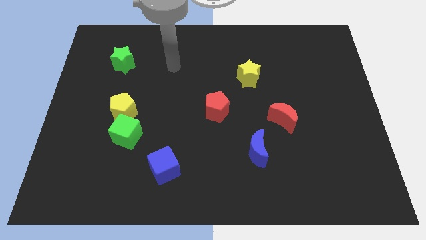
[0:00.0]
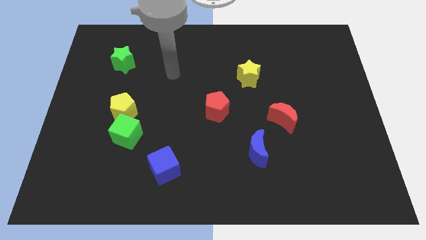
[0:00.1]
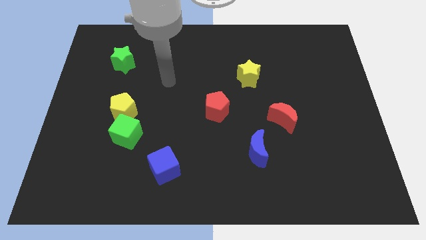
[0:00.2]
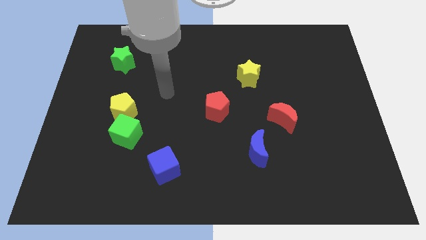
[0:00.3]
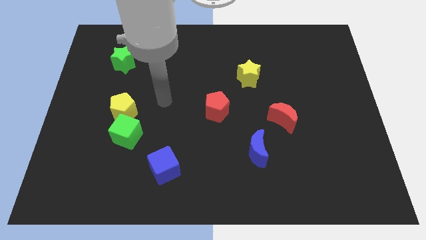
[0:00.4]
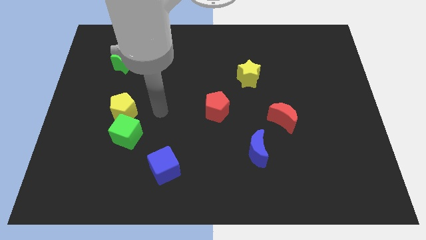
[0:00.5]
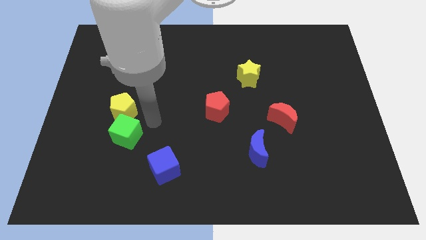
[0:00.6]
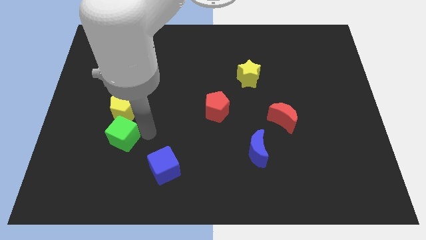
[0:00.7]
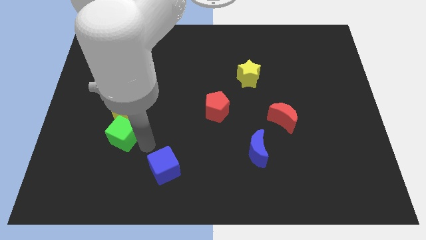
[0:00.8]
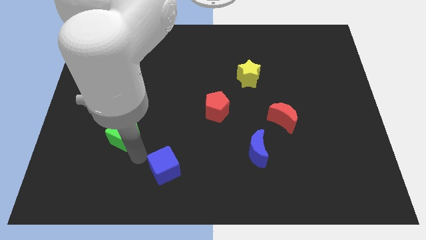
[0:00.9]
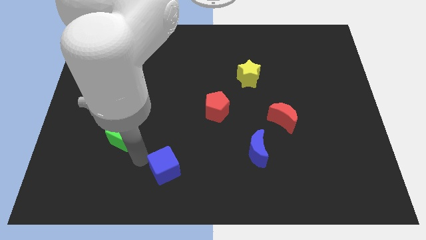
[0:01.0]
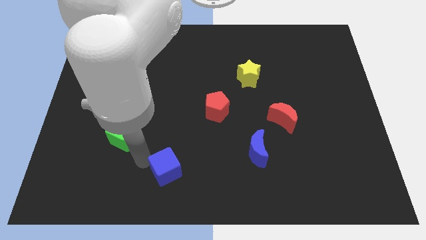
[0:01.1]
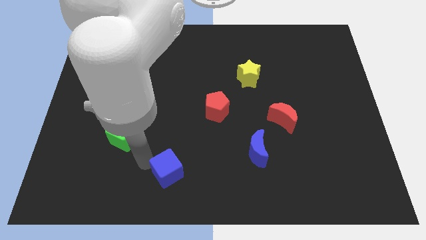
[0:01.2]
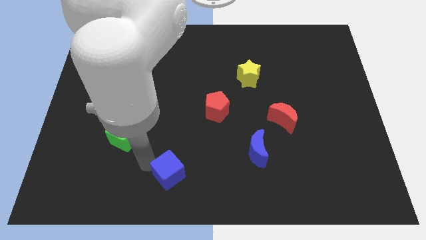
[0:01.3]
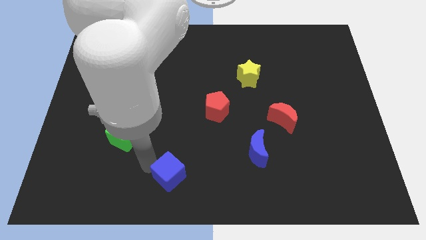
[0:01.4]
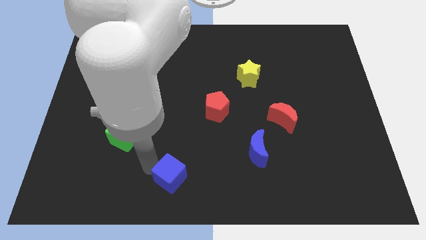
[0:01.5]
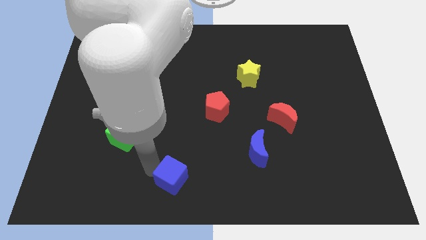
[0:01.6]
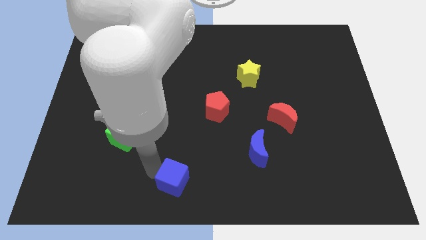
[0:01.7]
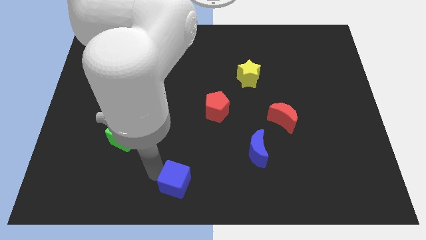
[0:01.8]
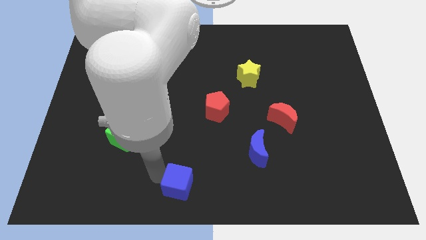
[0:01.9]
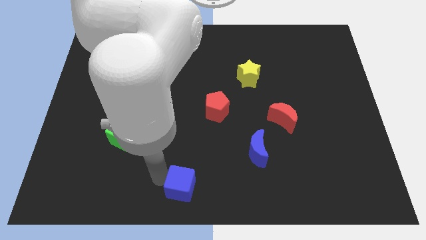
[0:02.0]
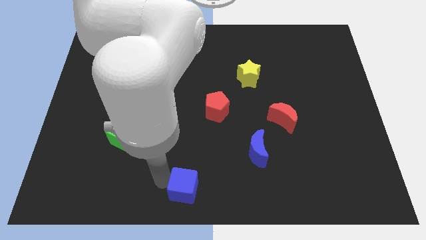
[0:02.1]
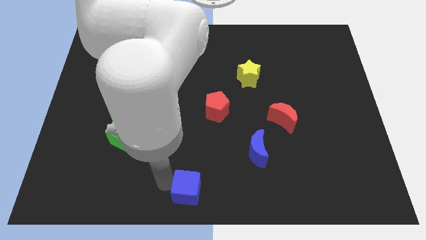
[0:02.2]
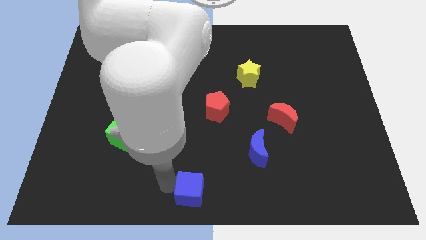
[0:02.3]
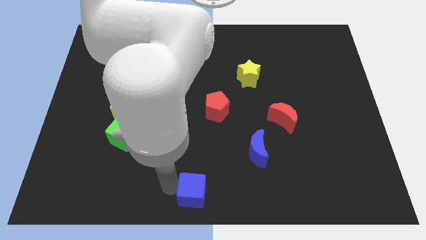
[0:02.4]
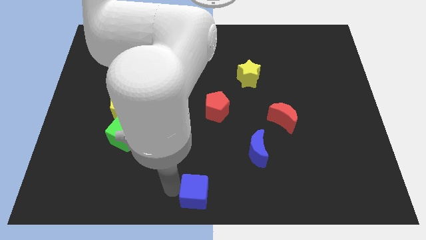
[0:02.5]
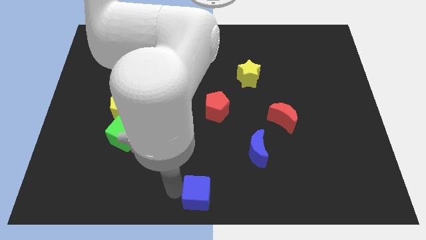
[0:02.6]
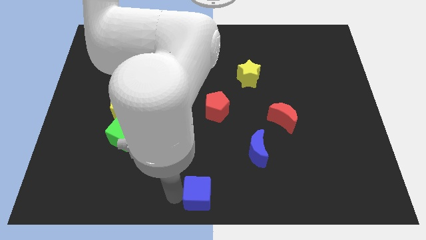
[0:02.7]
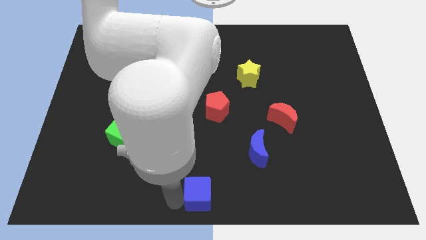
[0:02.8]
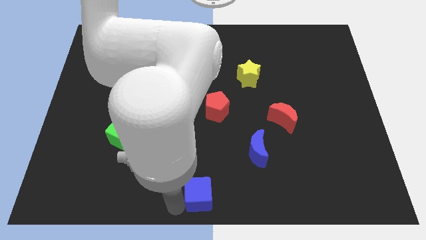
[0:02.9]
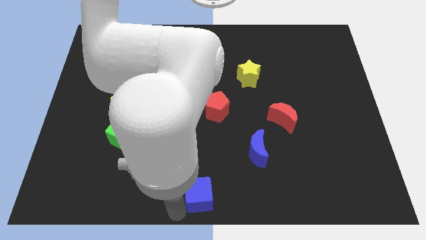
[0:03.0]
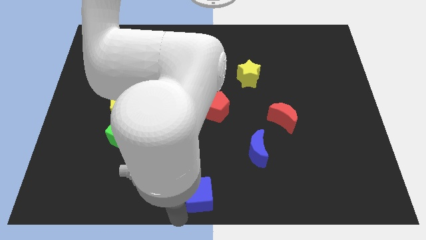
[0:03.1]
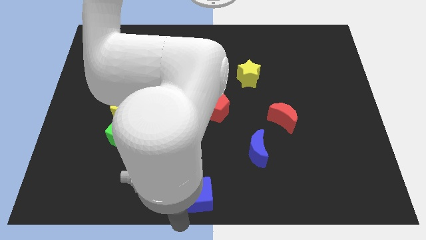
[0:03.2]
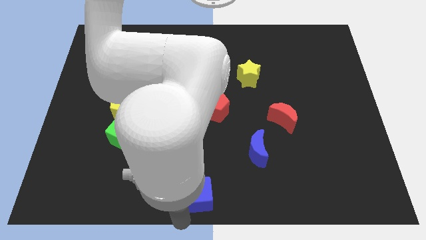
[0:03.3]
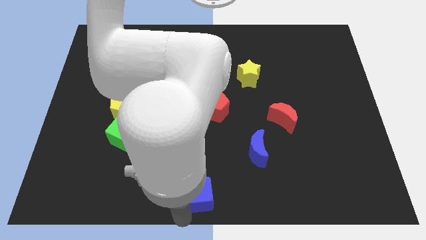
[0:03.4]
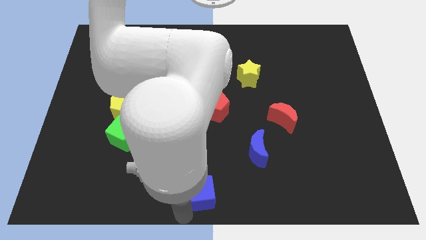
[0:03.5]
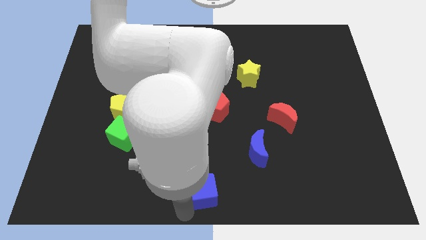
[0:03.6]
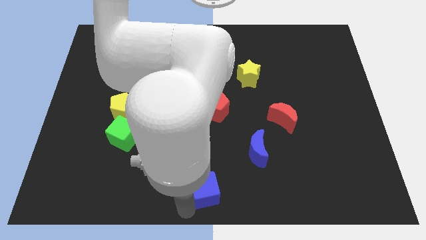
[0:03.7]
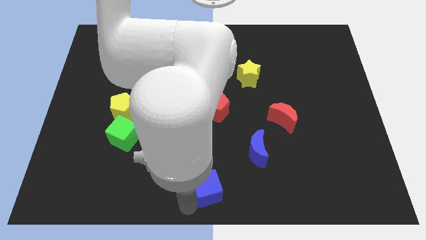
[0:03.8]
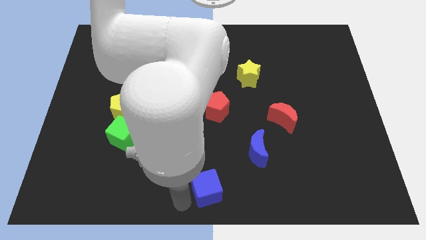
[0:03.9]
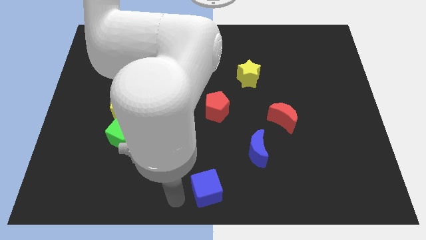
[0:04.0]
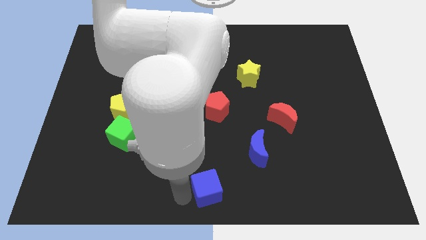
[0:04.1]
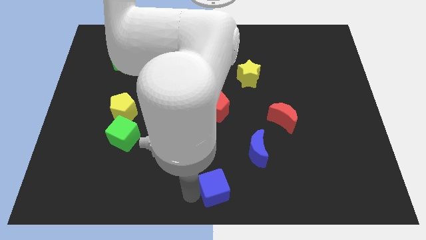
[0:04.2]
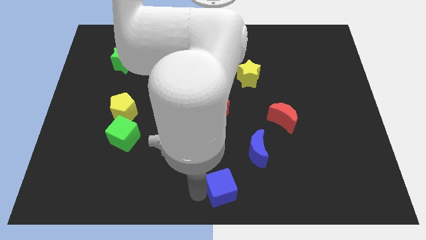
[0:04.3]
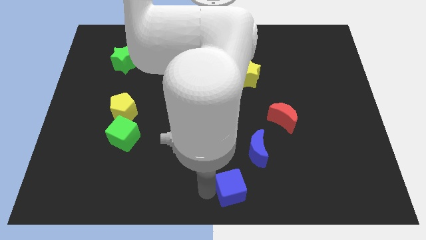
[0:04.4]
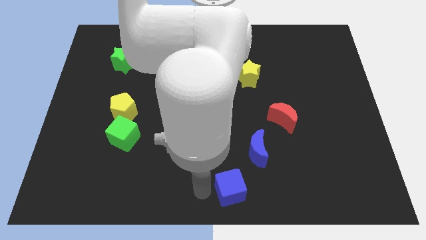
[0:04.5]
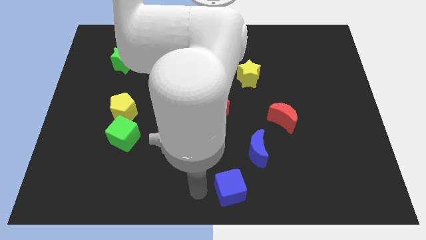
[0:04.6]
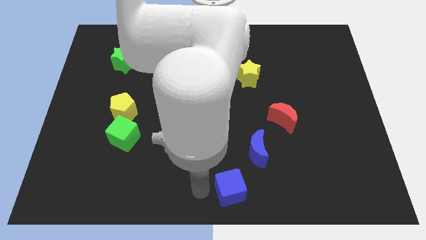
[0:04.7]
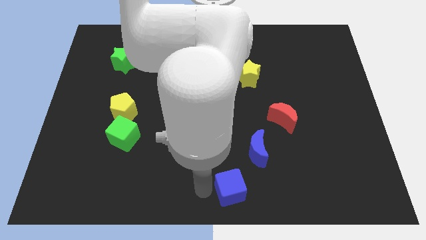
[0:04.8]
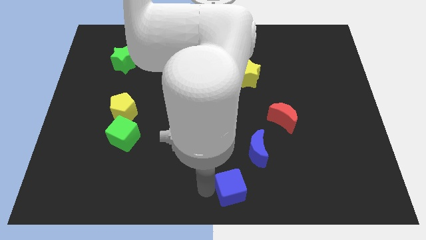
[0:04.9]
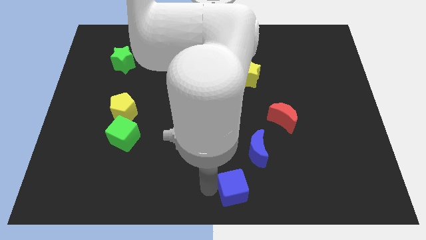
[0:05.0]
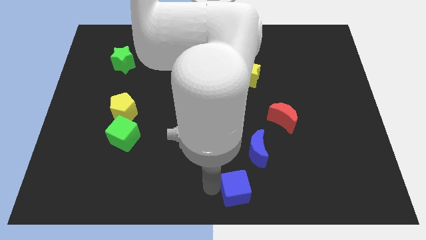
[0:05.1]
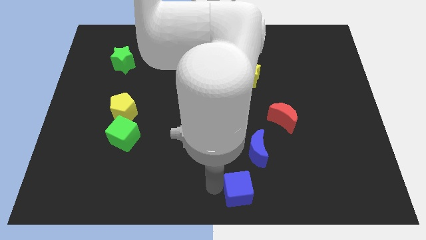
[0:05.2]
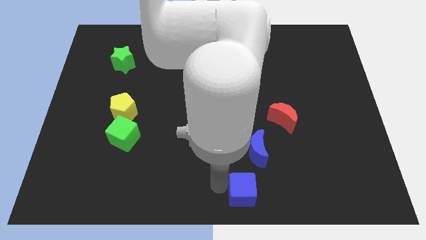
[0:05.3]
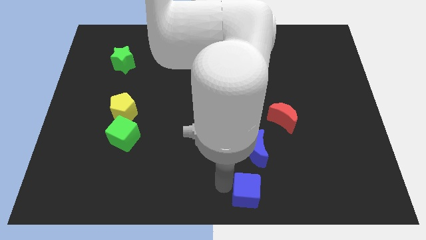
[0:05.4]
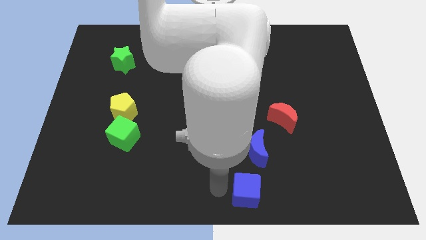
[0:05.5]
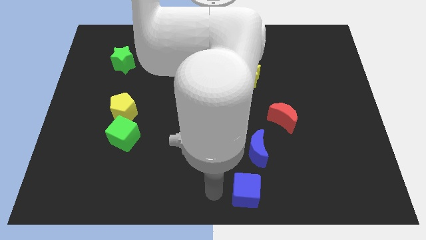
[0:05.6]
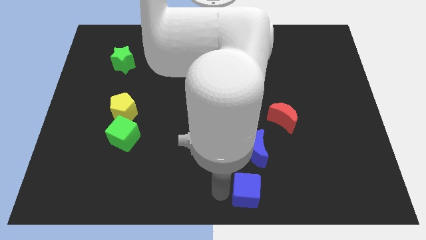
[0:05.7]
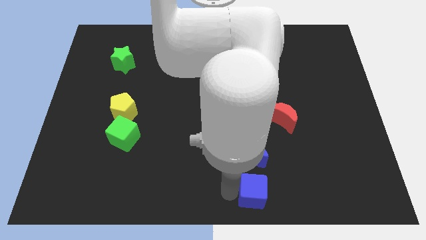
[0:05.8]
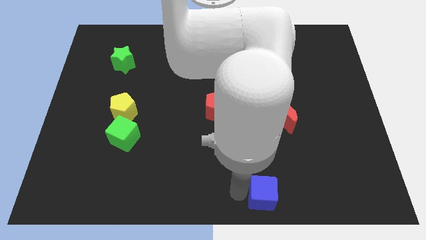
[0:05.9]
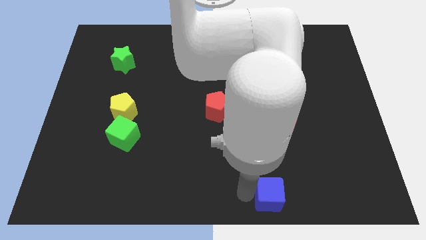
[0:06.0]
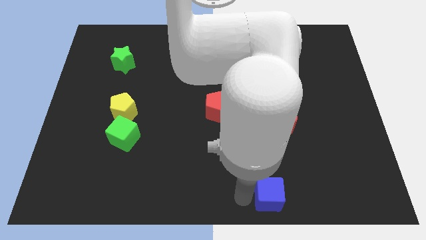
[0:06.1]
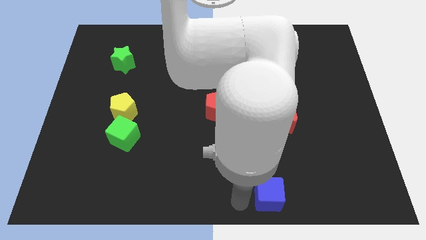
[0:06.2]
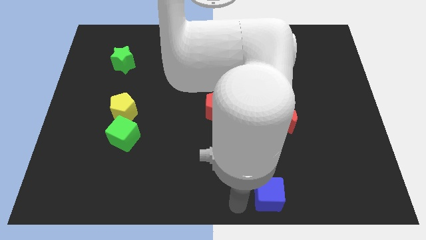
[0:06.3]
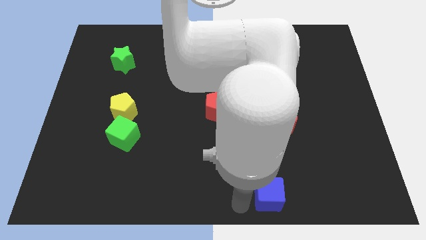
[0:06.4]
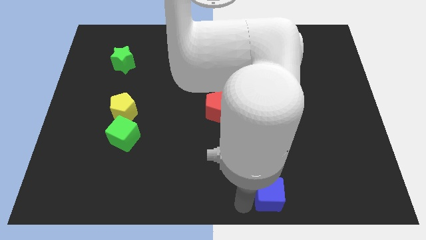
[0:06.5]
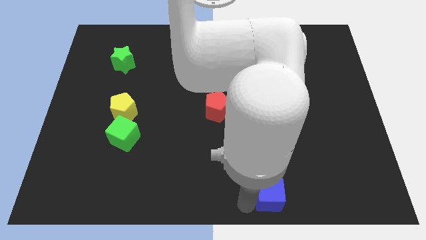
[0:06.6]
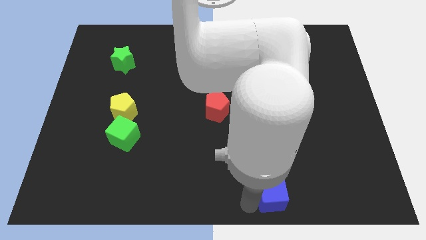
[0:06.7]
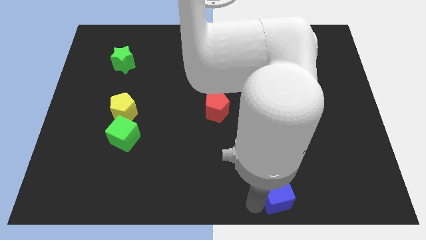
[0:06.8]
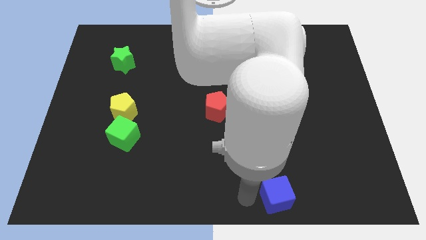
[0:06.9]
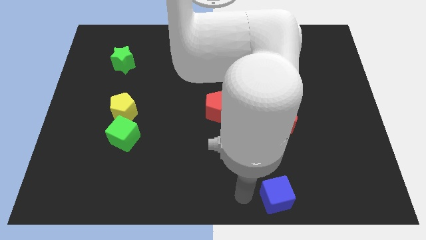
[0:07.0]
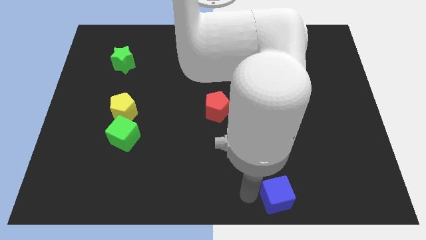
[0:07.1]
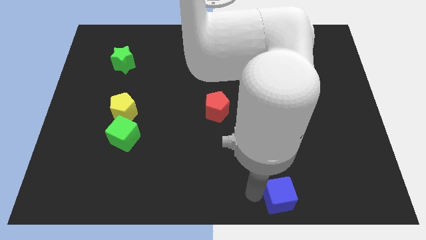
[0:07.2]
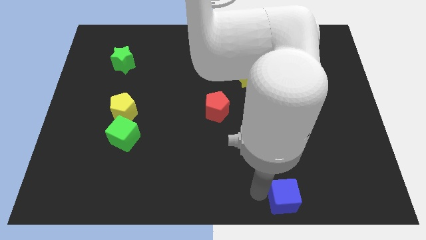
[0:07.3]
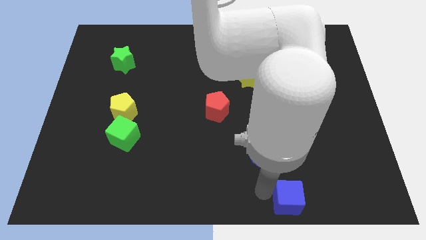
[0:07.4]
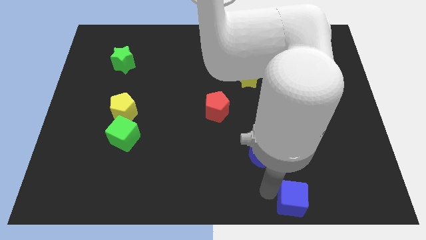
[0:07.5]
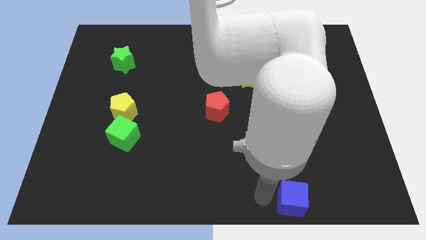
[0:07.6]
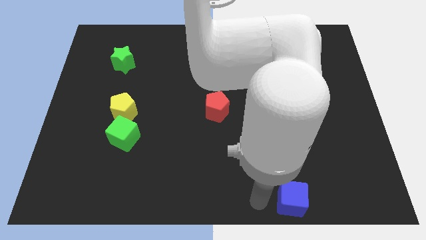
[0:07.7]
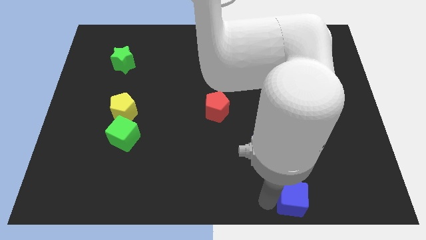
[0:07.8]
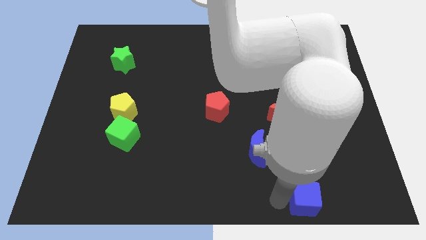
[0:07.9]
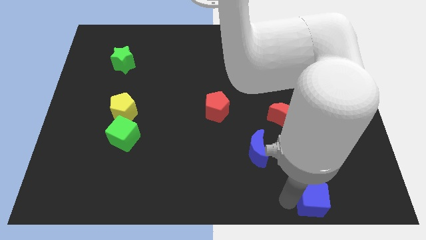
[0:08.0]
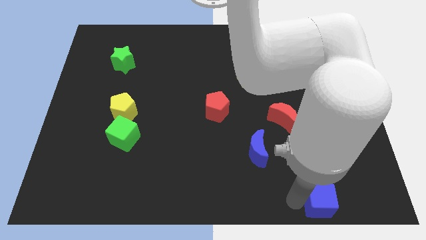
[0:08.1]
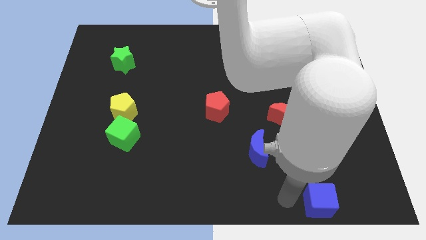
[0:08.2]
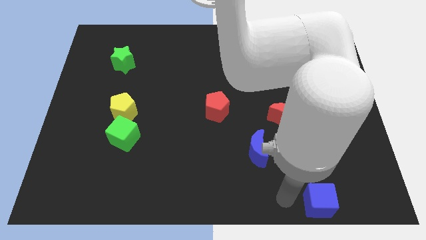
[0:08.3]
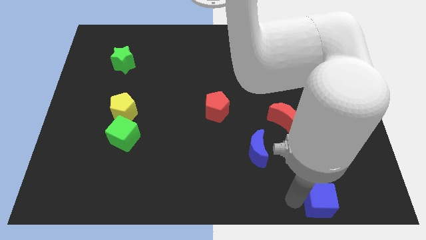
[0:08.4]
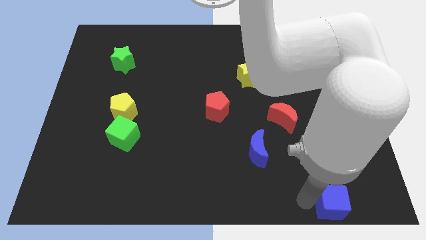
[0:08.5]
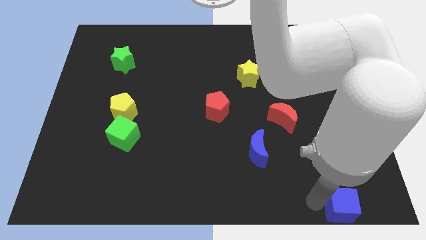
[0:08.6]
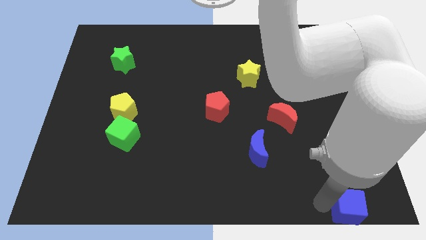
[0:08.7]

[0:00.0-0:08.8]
move the blue cube to the bottom right
